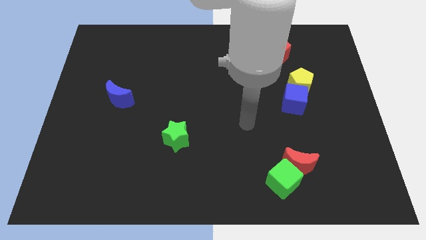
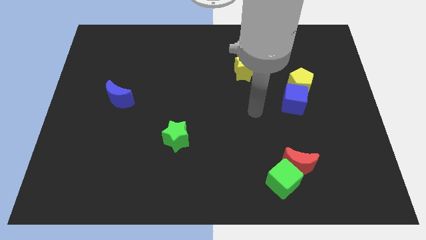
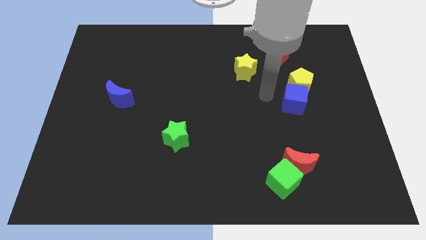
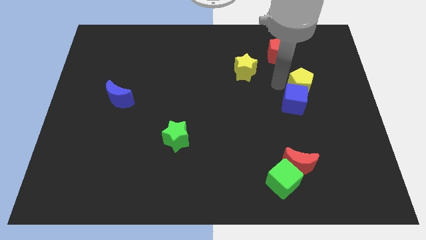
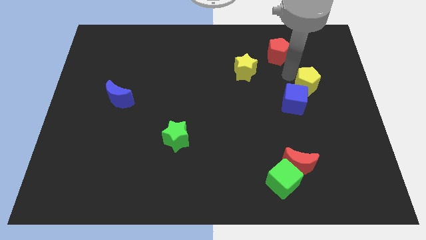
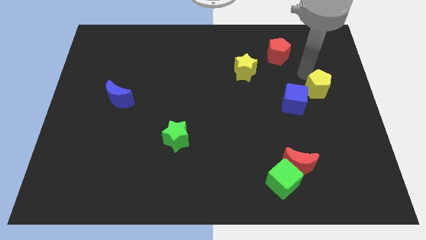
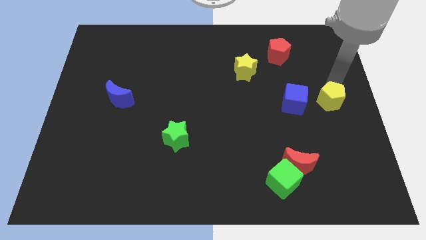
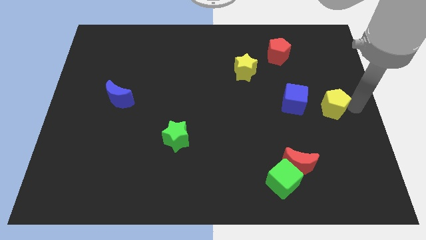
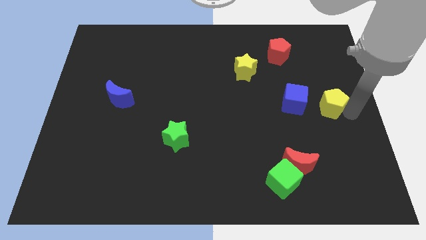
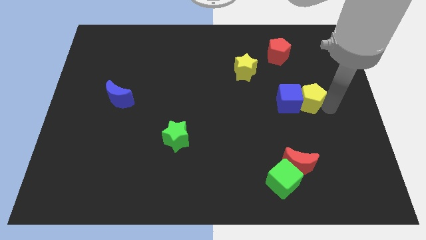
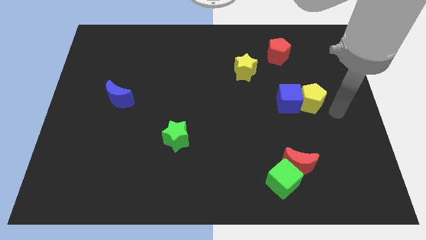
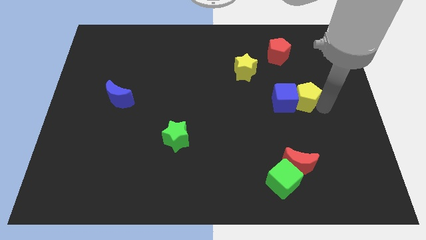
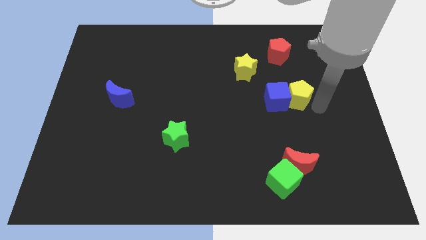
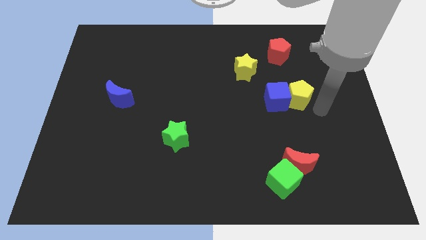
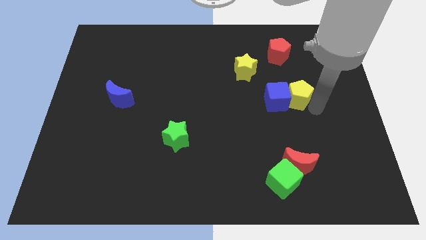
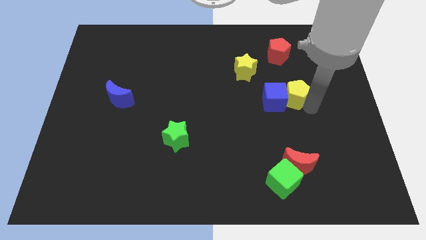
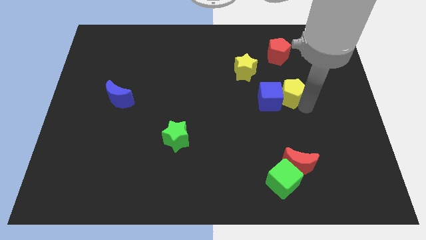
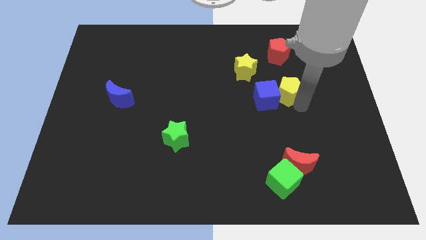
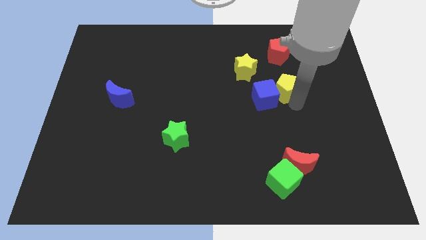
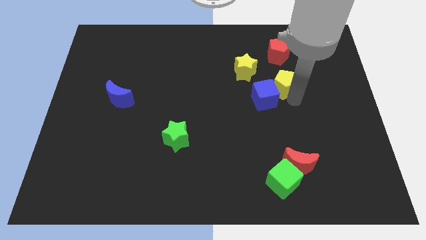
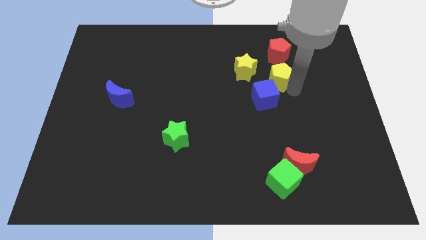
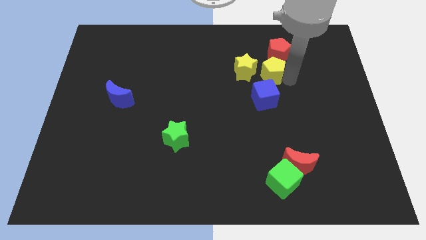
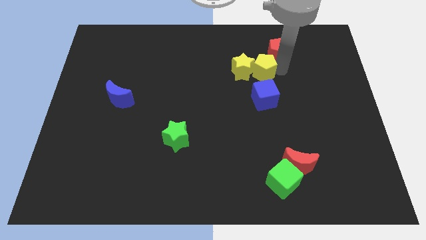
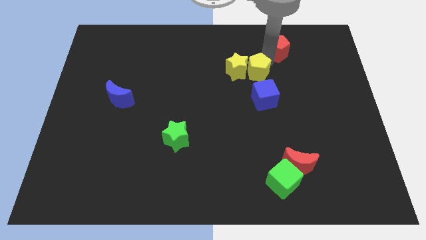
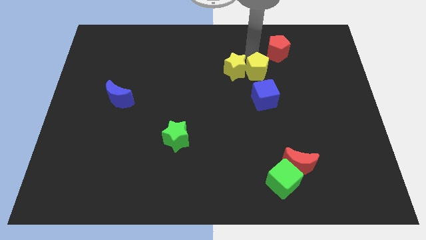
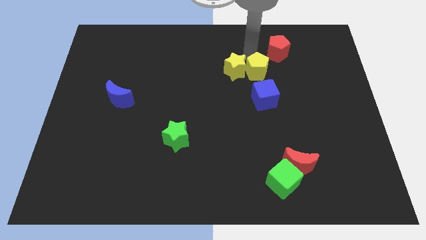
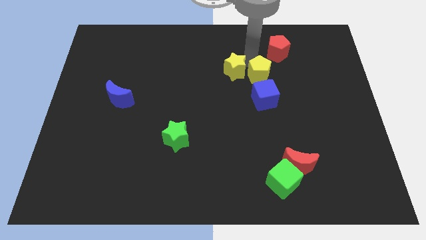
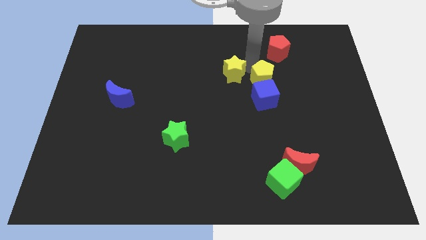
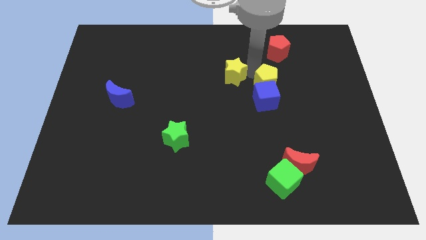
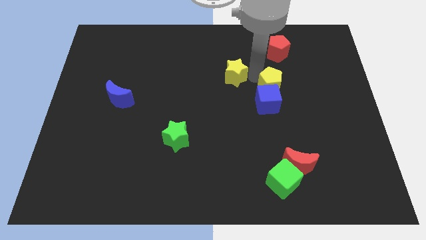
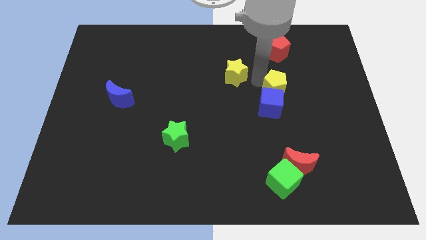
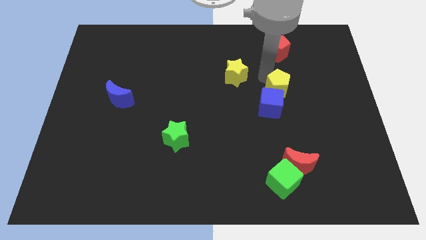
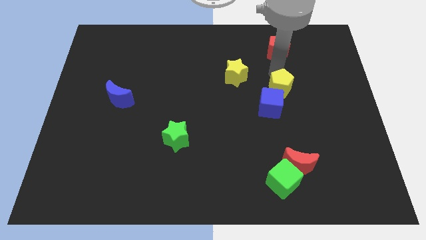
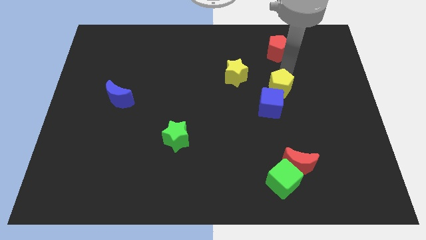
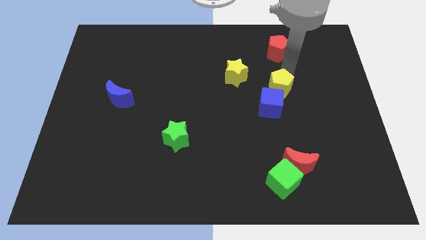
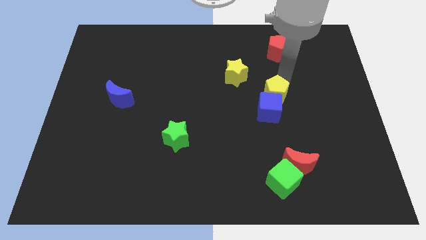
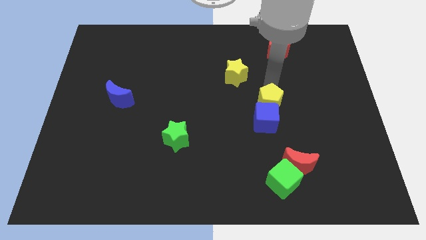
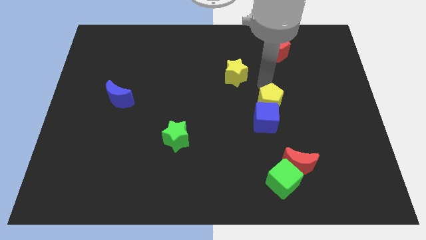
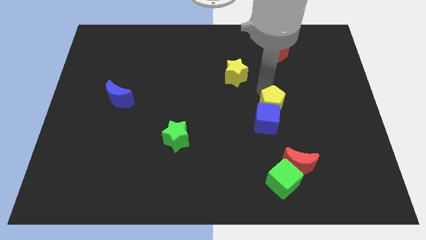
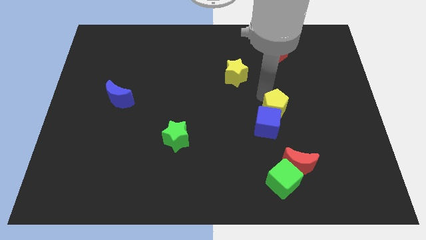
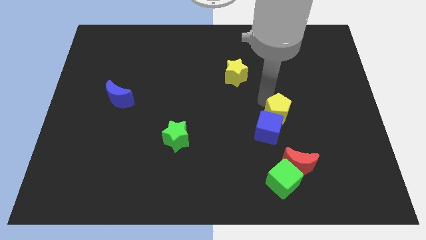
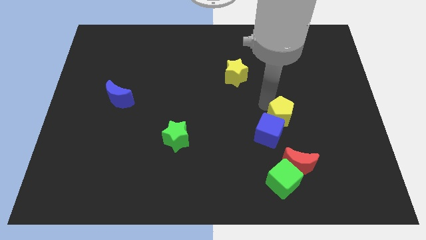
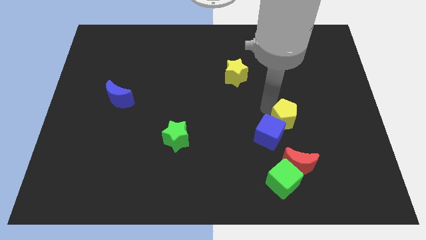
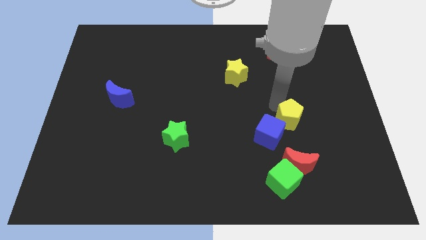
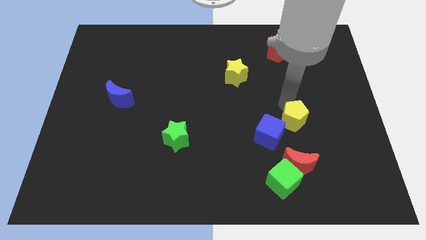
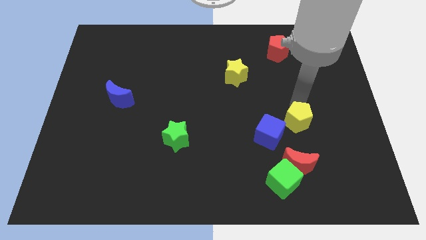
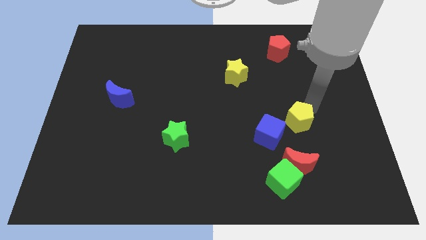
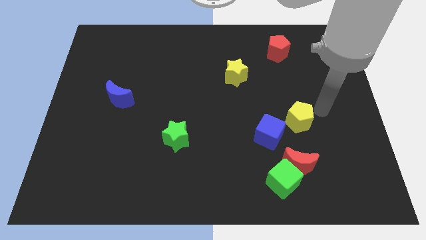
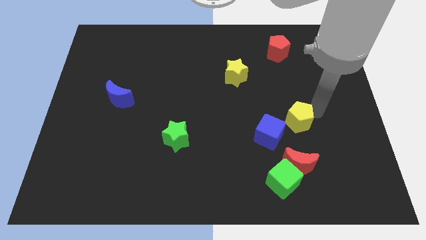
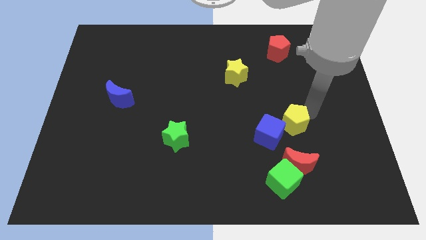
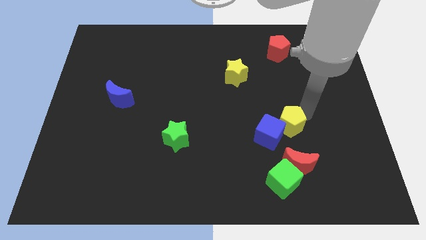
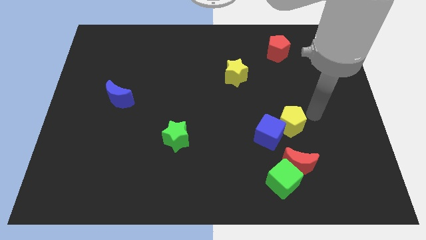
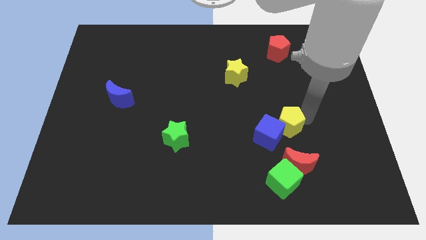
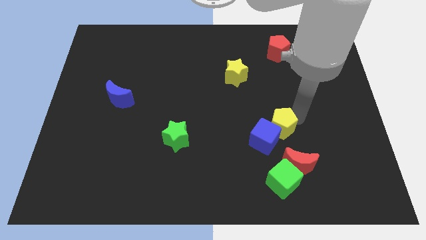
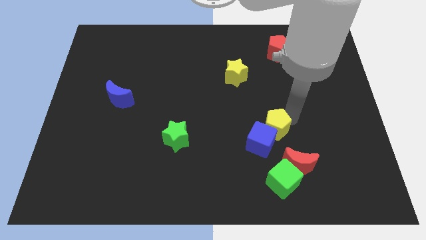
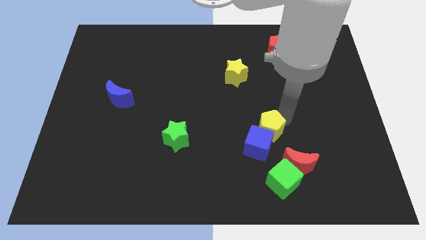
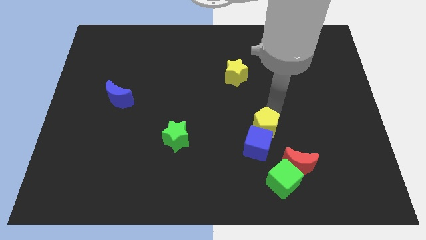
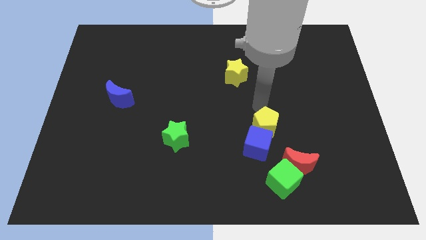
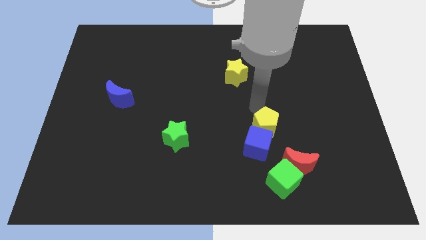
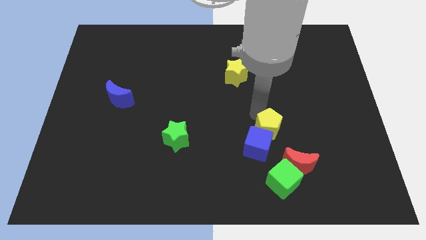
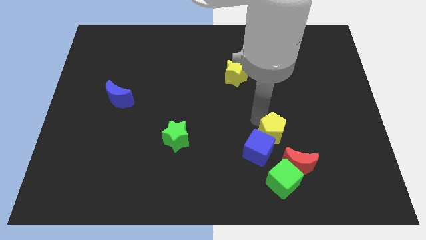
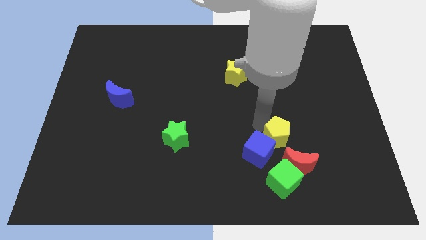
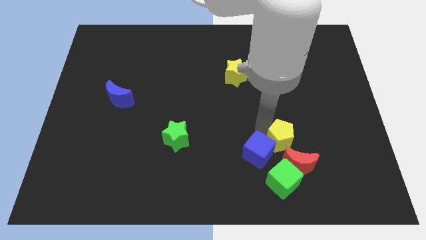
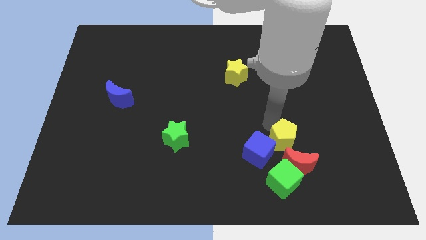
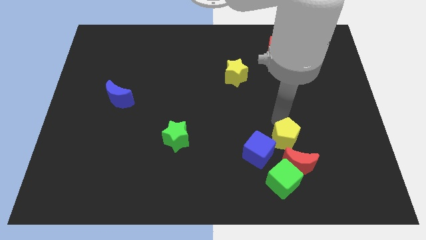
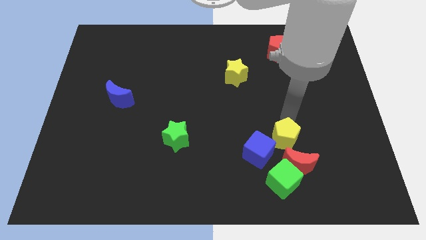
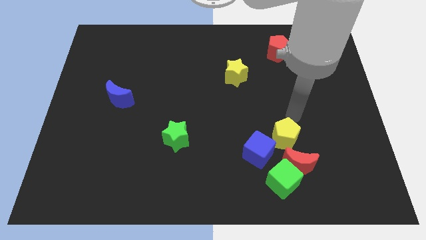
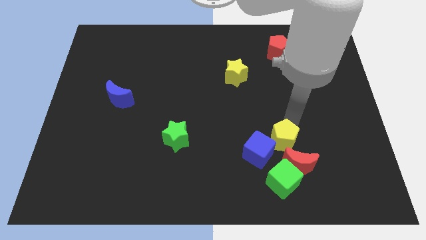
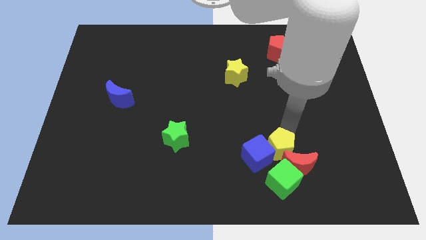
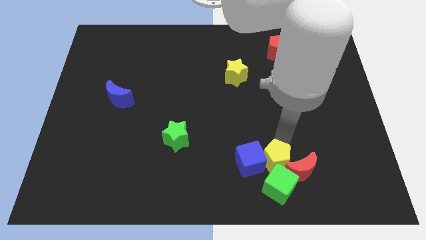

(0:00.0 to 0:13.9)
push the yellow pentagon close to the green cube

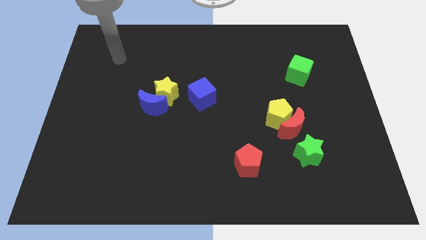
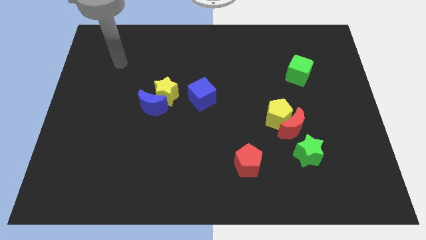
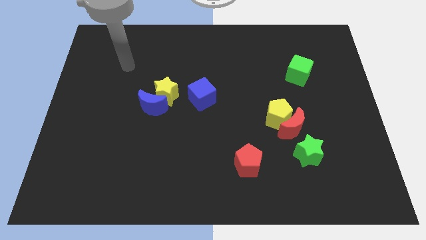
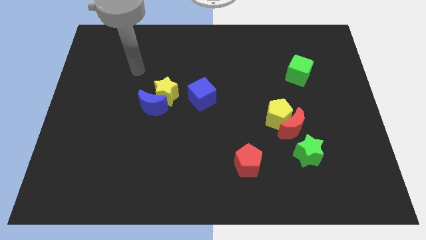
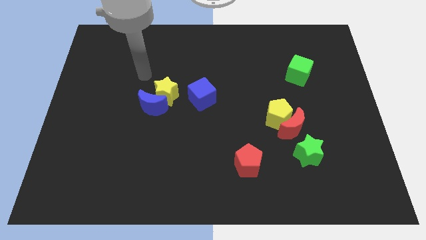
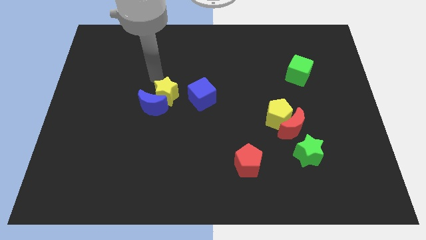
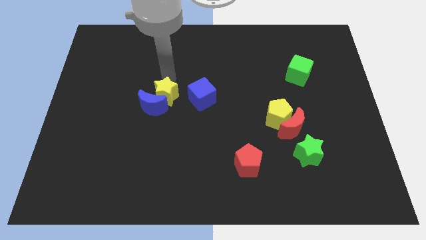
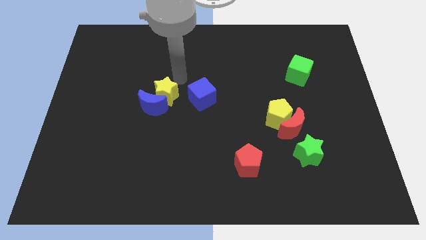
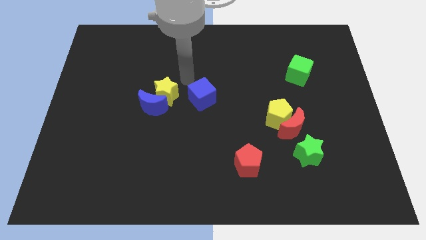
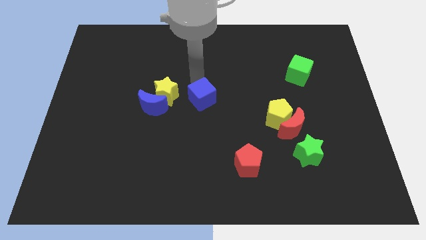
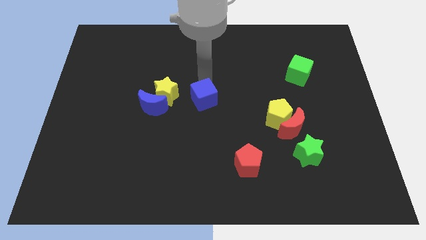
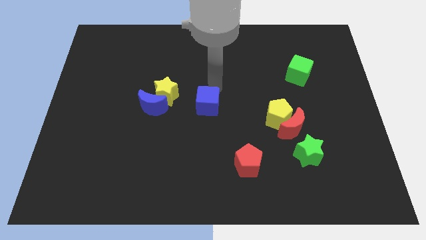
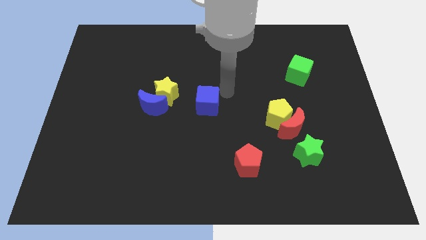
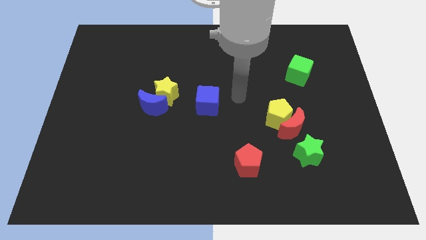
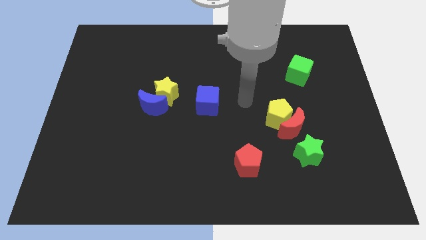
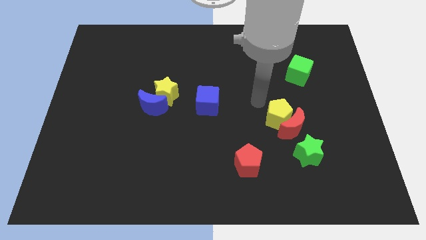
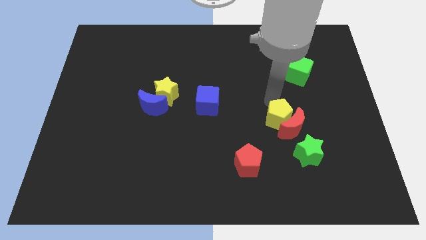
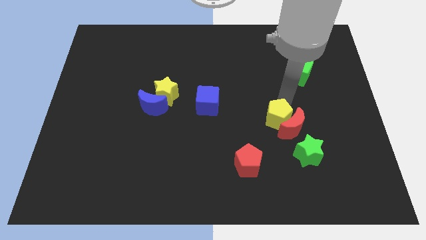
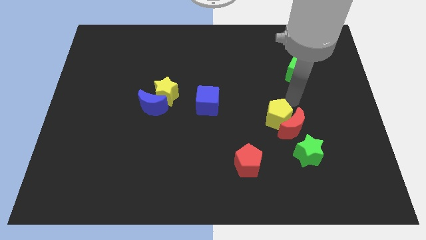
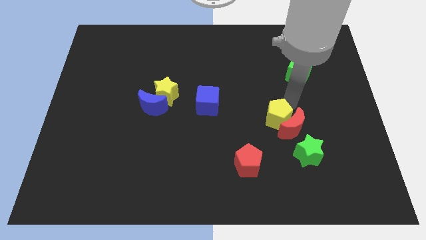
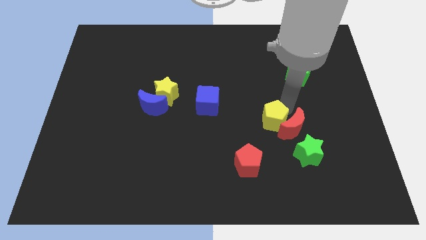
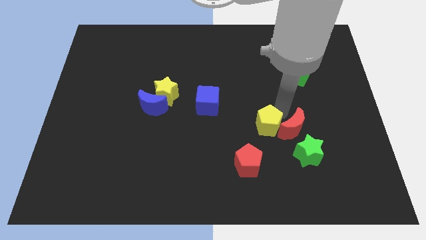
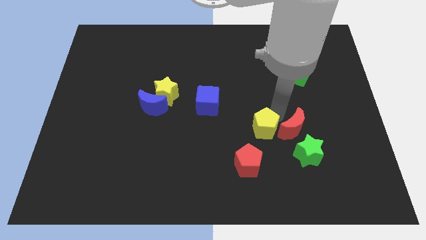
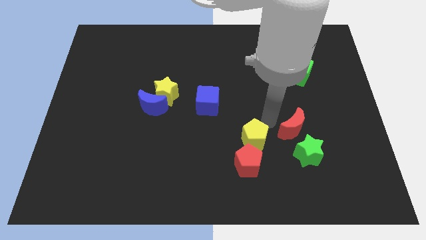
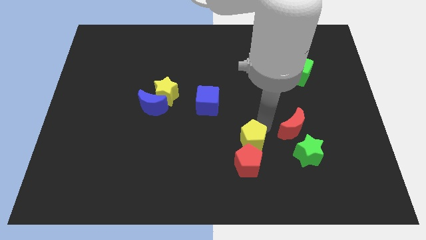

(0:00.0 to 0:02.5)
push the yellow pentagon to the red pentagon
